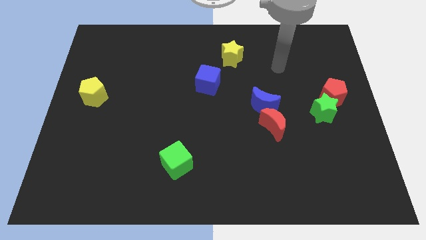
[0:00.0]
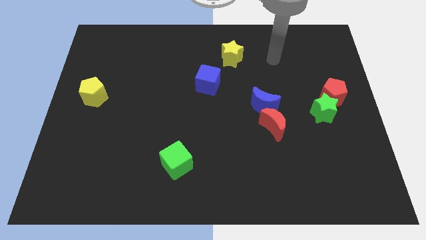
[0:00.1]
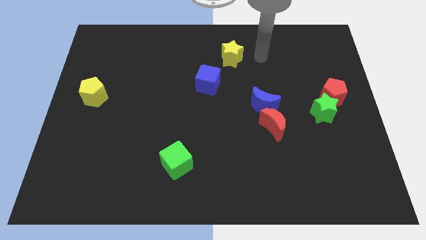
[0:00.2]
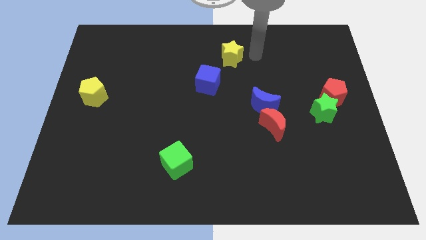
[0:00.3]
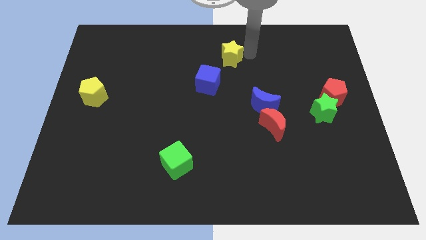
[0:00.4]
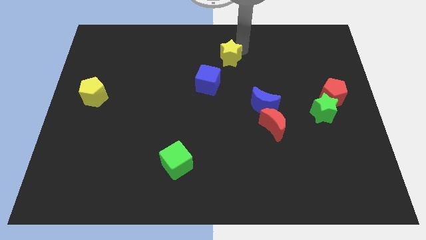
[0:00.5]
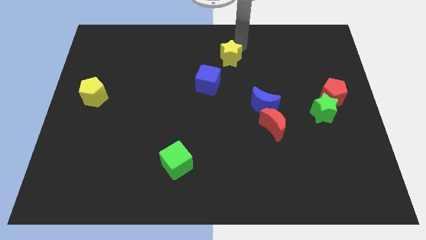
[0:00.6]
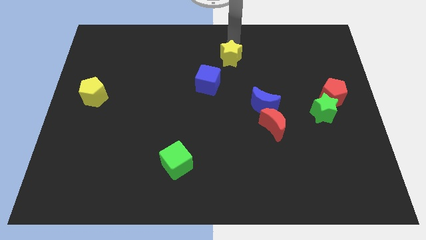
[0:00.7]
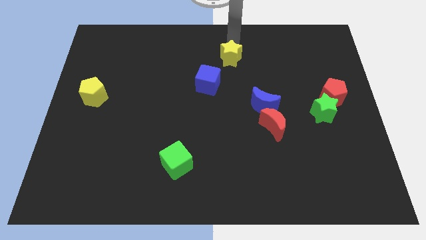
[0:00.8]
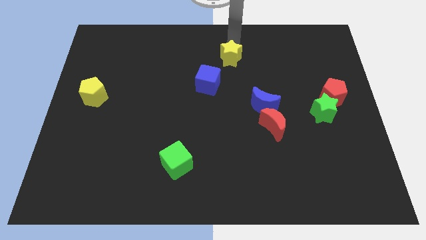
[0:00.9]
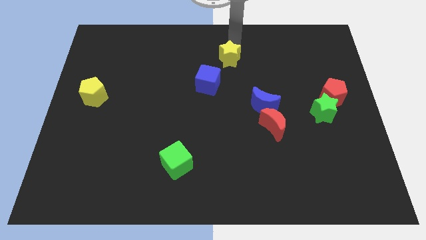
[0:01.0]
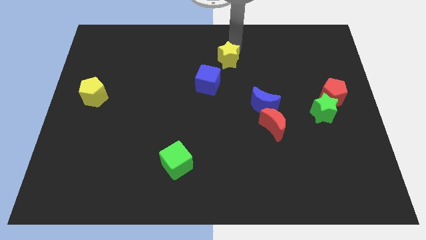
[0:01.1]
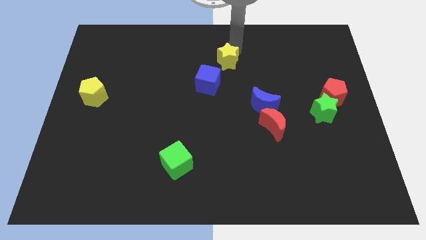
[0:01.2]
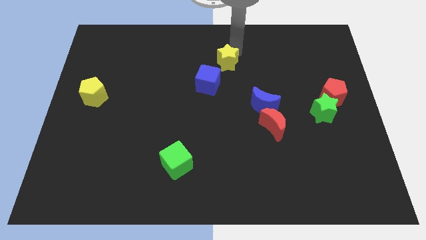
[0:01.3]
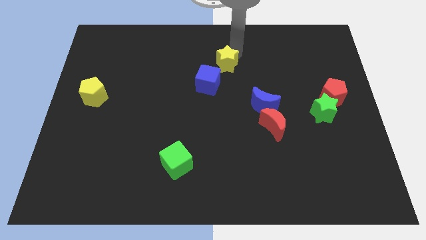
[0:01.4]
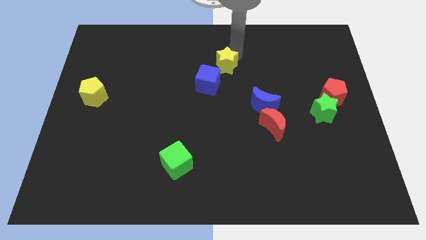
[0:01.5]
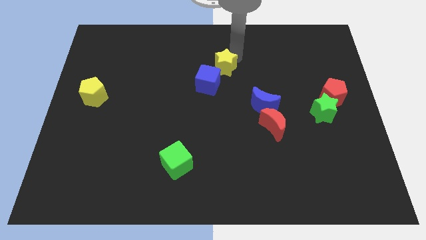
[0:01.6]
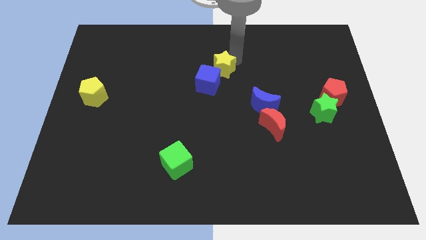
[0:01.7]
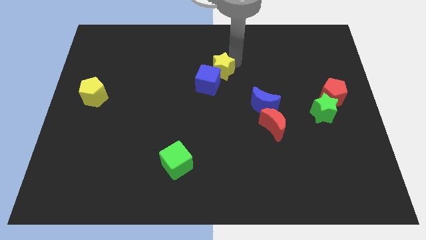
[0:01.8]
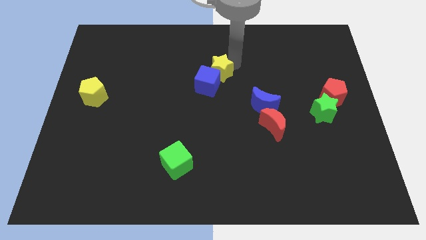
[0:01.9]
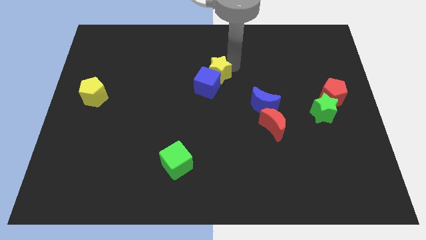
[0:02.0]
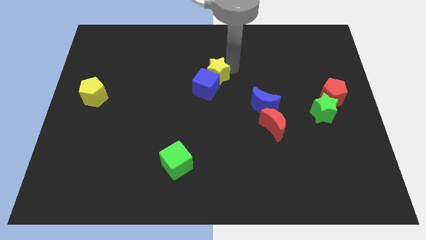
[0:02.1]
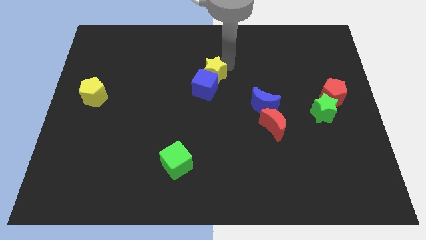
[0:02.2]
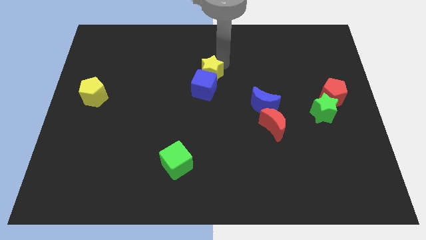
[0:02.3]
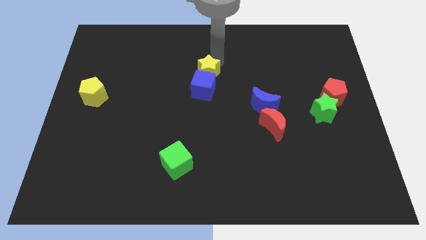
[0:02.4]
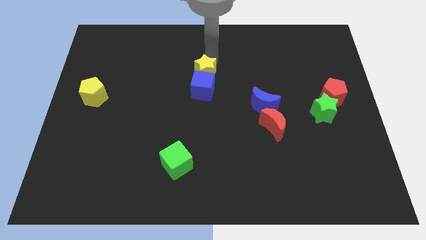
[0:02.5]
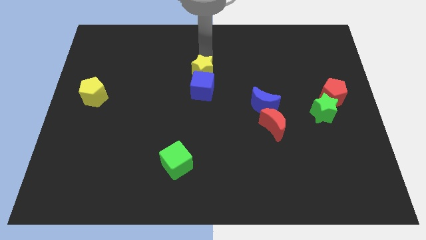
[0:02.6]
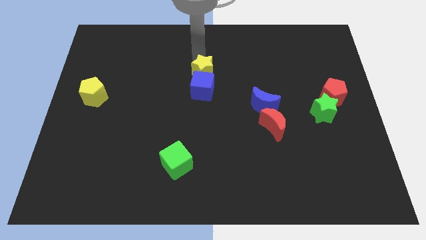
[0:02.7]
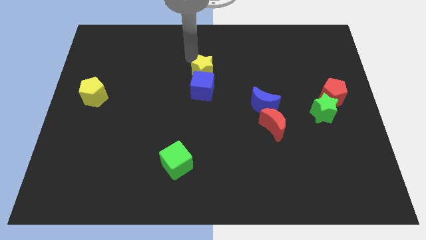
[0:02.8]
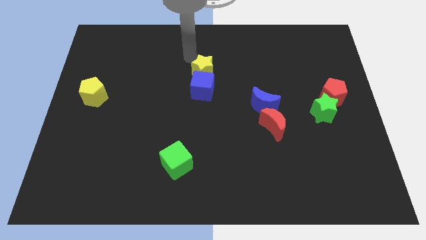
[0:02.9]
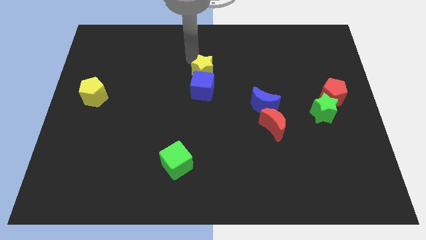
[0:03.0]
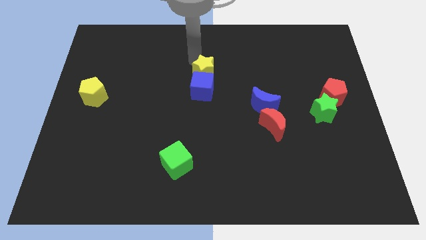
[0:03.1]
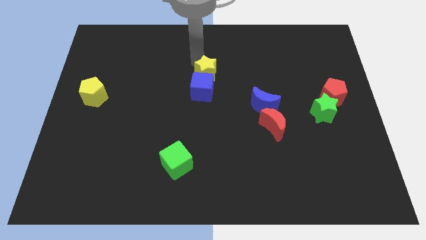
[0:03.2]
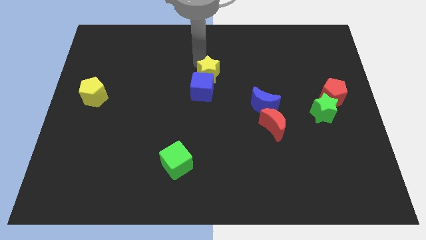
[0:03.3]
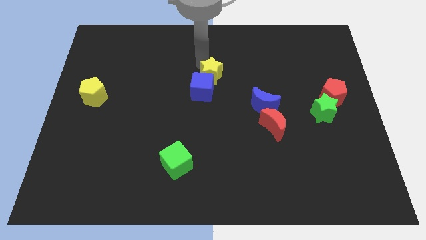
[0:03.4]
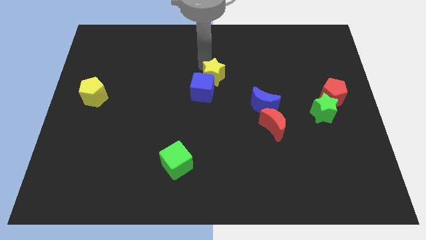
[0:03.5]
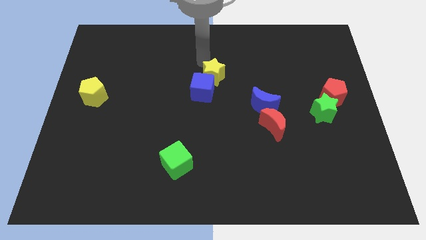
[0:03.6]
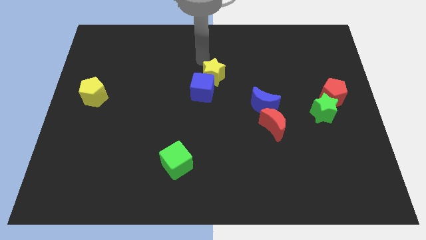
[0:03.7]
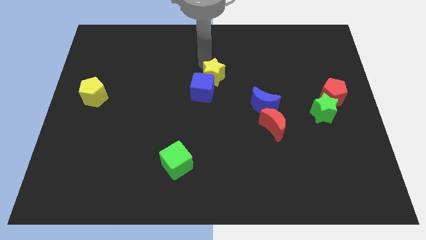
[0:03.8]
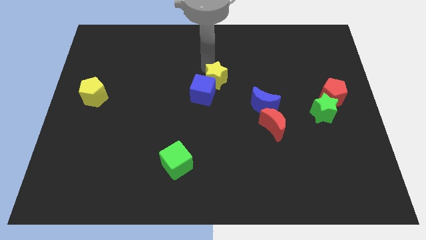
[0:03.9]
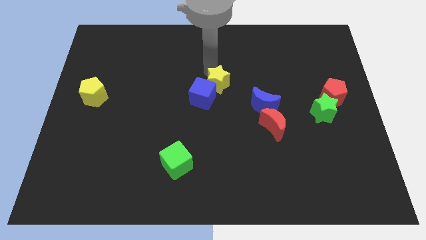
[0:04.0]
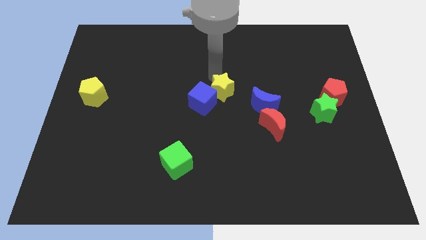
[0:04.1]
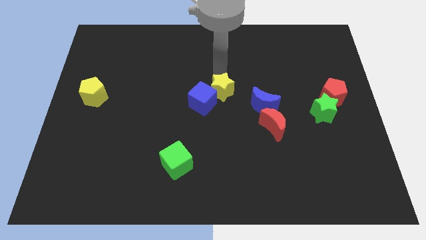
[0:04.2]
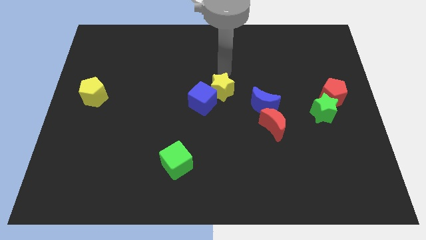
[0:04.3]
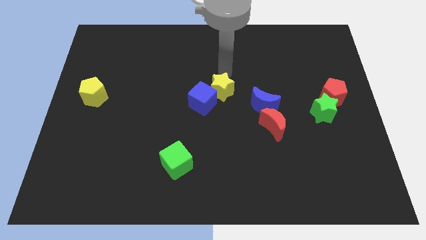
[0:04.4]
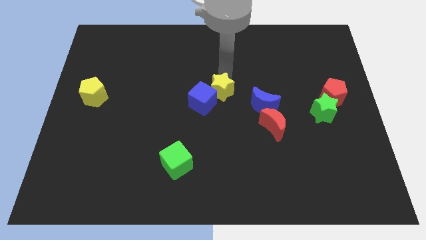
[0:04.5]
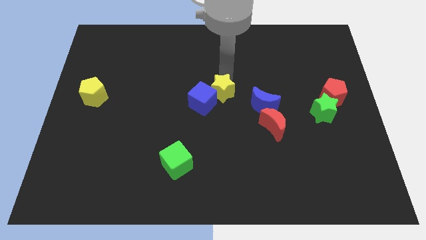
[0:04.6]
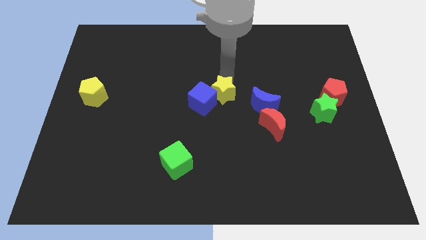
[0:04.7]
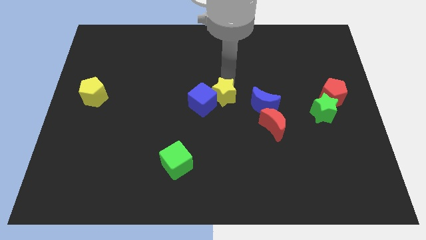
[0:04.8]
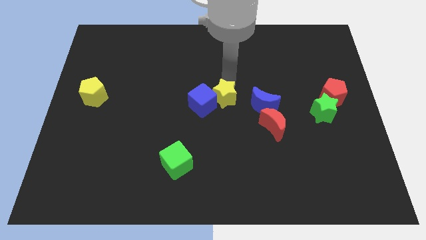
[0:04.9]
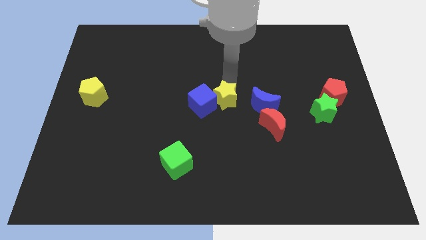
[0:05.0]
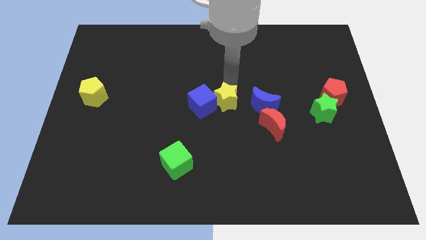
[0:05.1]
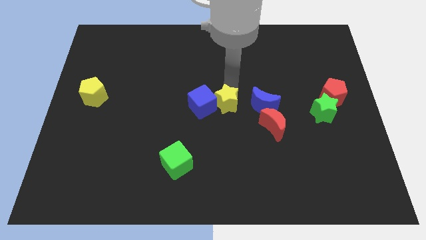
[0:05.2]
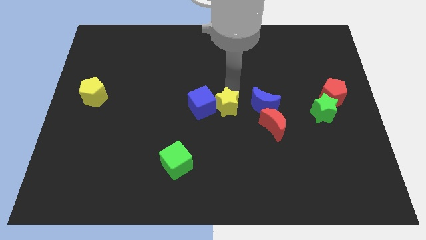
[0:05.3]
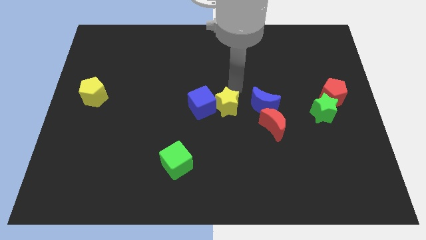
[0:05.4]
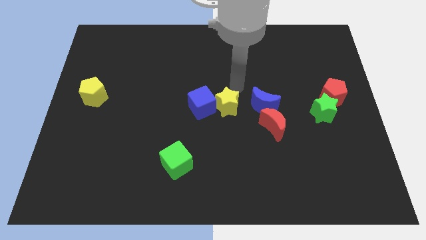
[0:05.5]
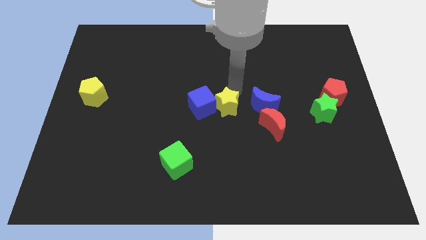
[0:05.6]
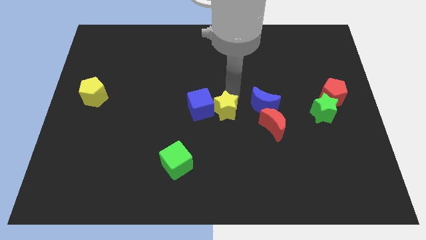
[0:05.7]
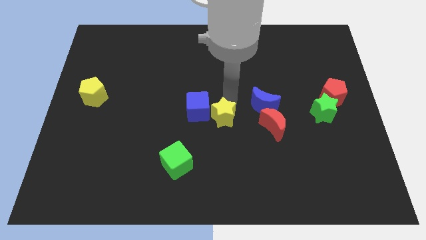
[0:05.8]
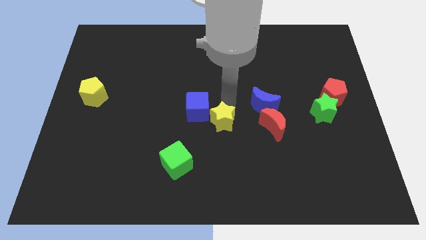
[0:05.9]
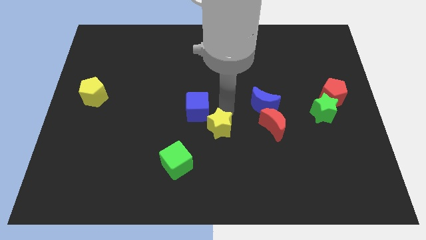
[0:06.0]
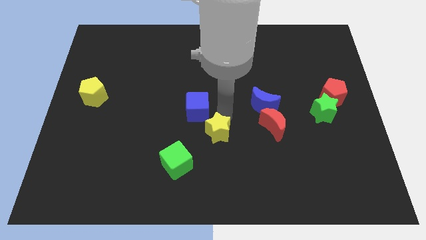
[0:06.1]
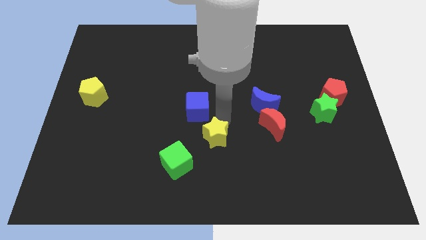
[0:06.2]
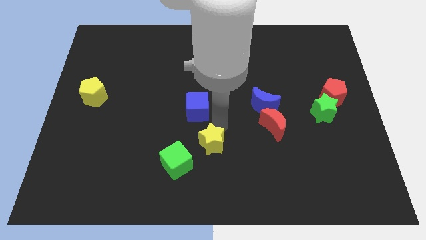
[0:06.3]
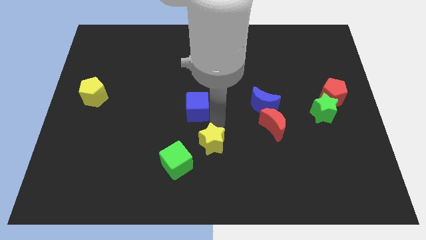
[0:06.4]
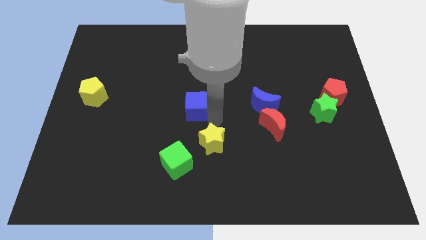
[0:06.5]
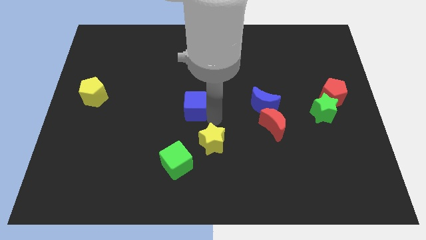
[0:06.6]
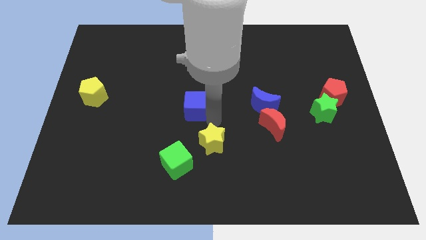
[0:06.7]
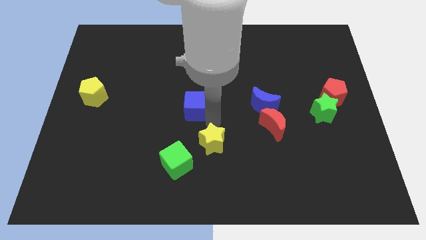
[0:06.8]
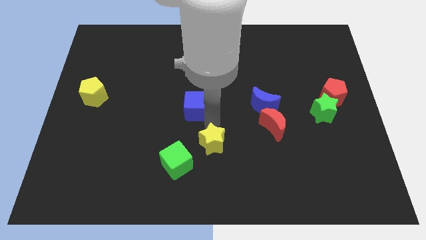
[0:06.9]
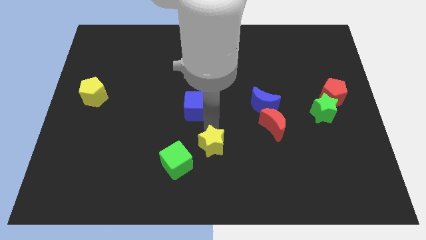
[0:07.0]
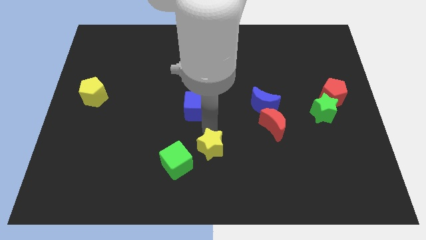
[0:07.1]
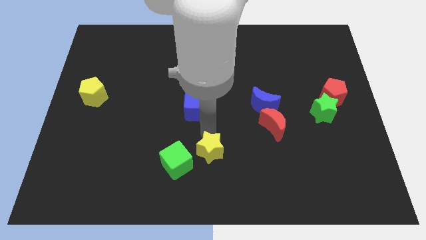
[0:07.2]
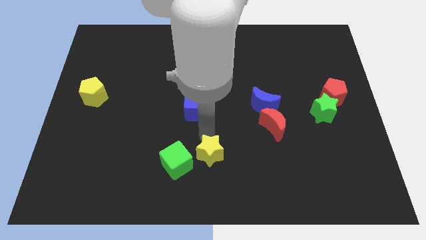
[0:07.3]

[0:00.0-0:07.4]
push the yellow star to the bottom side

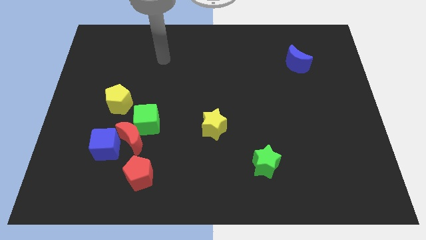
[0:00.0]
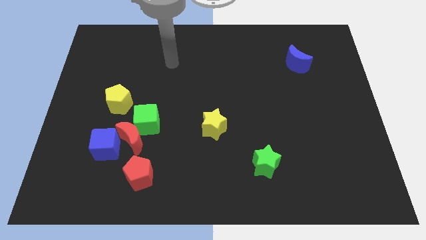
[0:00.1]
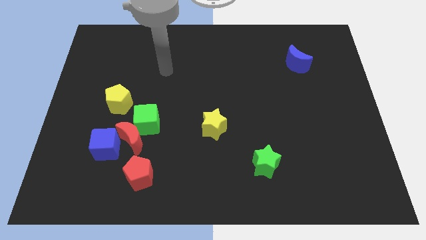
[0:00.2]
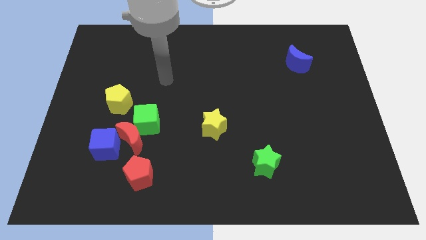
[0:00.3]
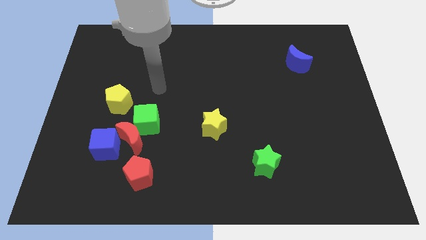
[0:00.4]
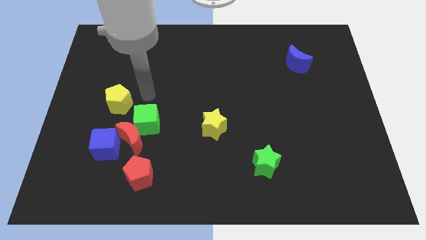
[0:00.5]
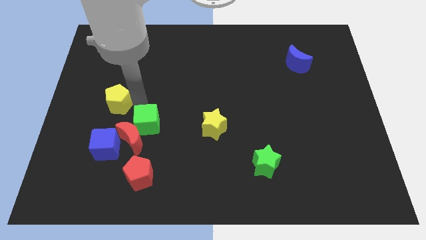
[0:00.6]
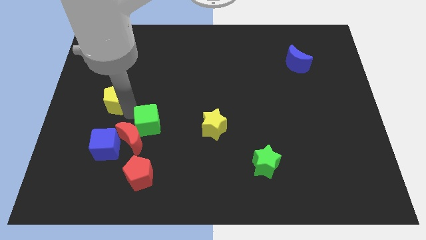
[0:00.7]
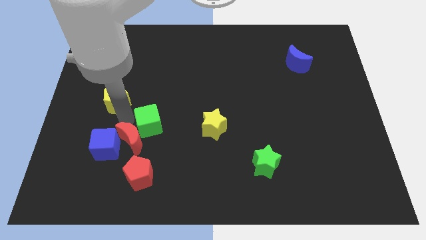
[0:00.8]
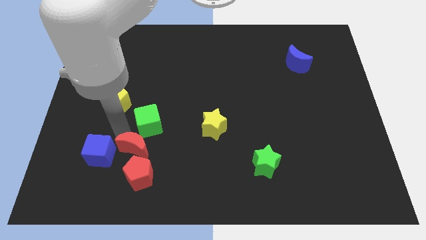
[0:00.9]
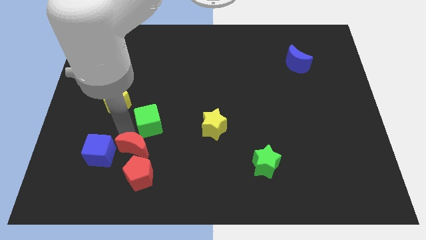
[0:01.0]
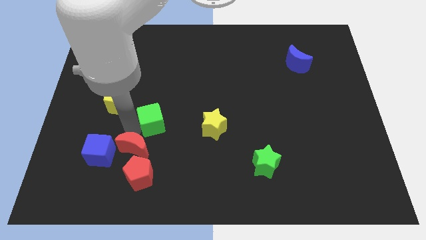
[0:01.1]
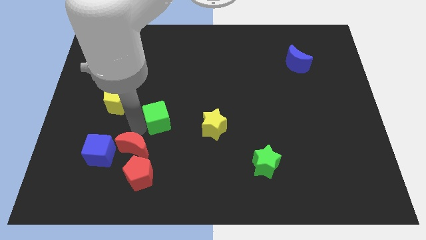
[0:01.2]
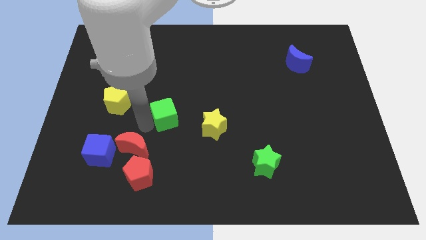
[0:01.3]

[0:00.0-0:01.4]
move the green cube to the middle
